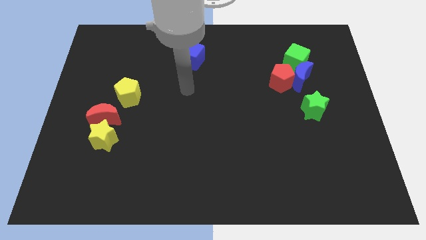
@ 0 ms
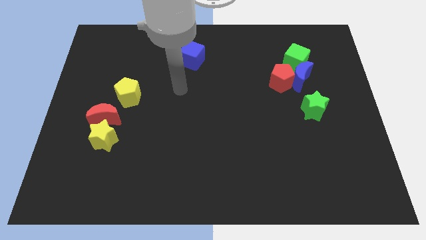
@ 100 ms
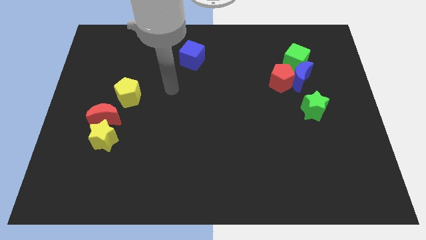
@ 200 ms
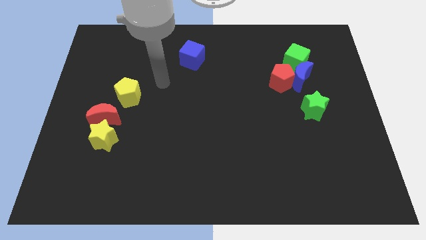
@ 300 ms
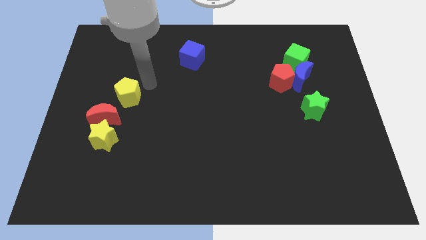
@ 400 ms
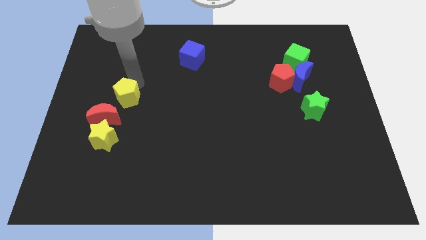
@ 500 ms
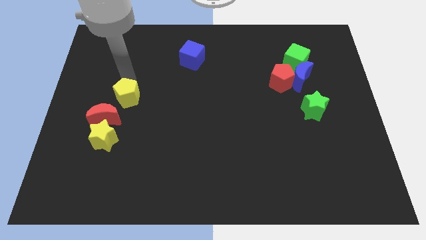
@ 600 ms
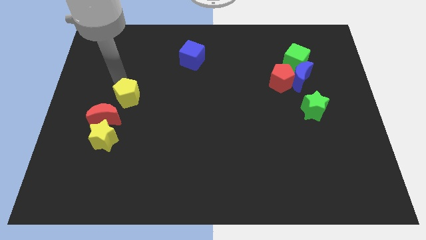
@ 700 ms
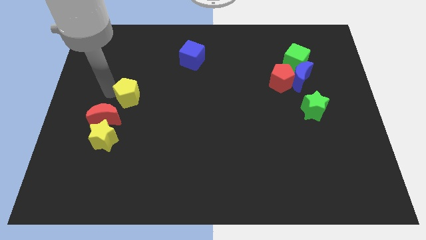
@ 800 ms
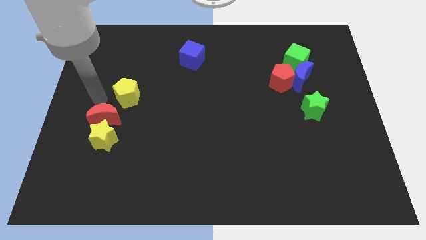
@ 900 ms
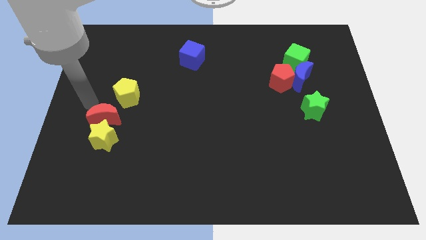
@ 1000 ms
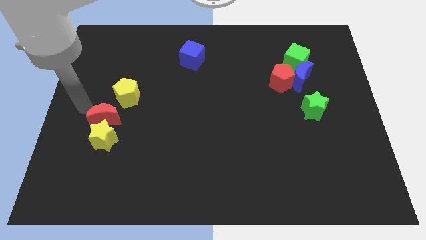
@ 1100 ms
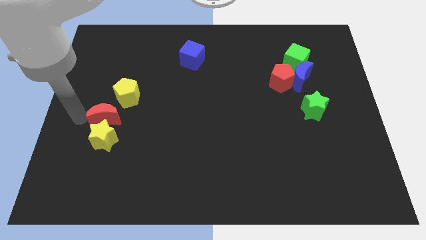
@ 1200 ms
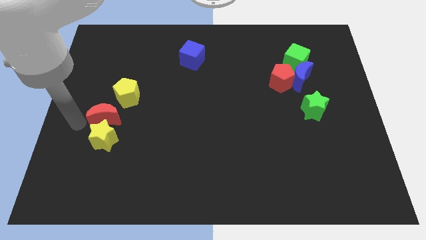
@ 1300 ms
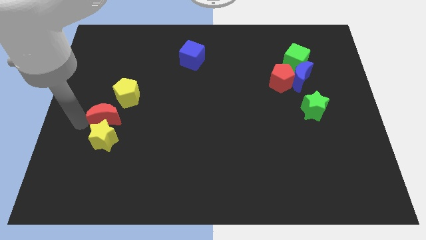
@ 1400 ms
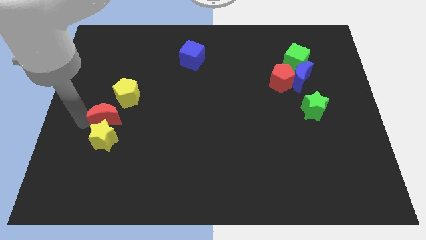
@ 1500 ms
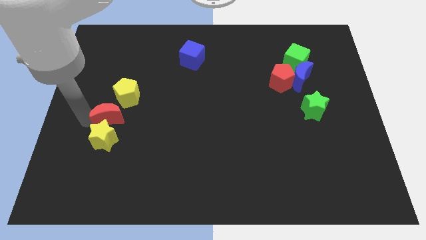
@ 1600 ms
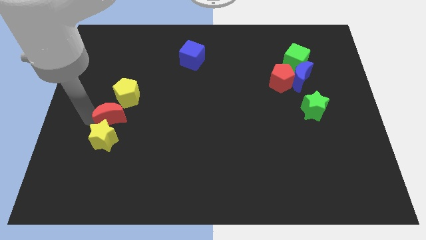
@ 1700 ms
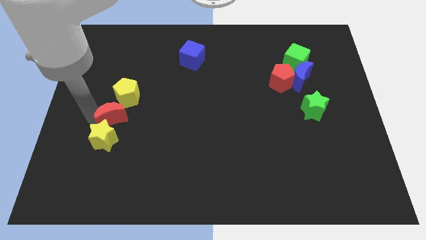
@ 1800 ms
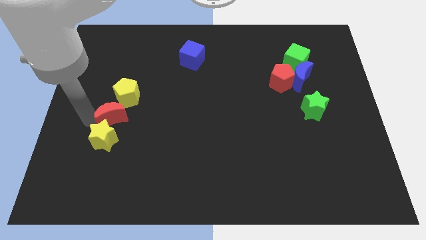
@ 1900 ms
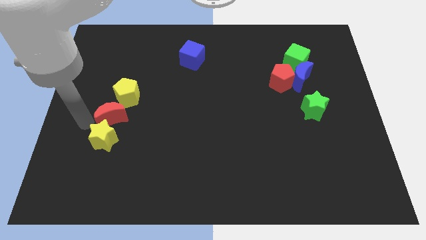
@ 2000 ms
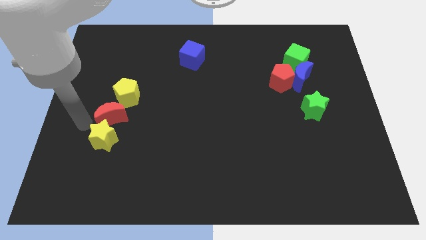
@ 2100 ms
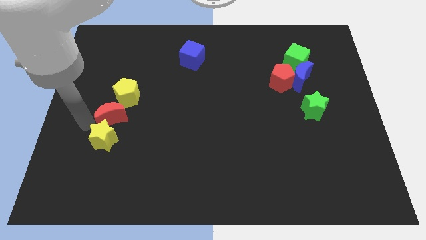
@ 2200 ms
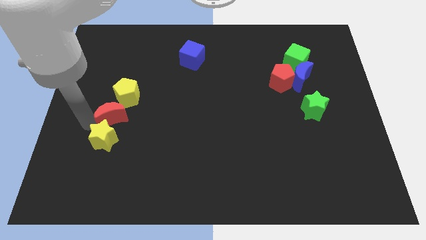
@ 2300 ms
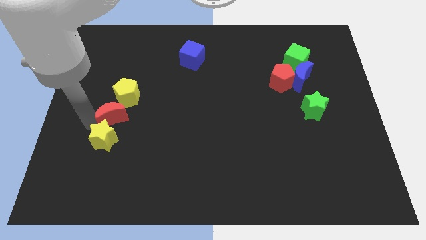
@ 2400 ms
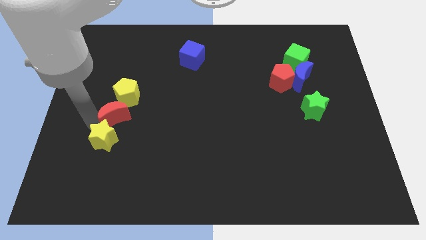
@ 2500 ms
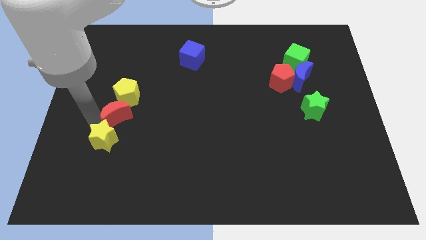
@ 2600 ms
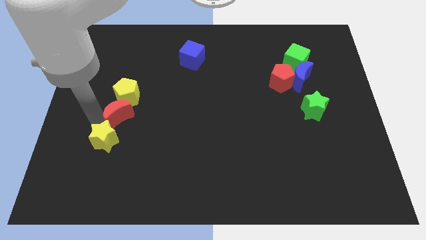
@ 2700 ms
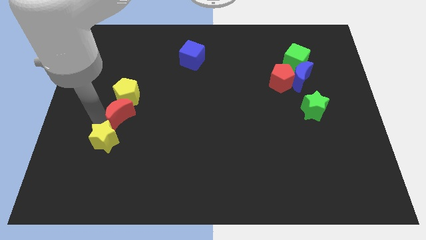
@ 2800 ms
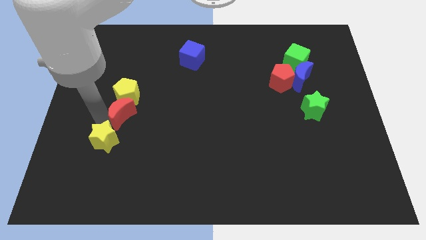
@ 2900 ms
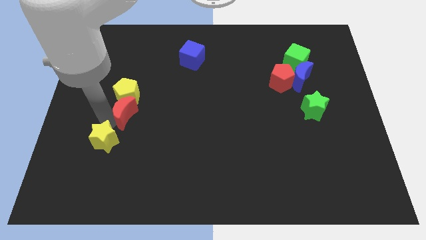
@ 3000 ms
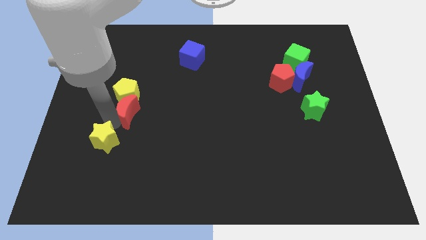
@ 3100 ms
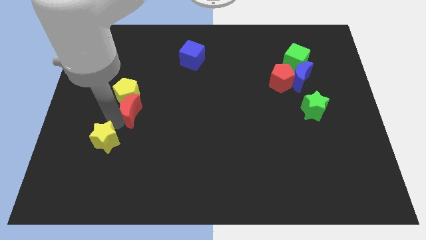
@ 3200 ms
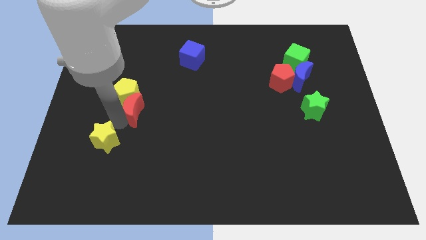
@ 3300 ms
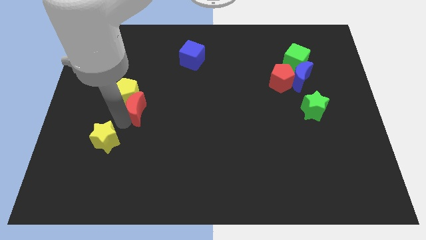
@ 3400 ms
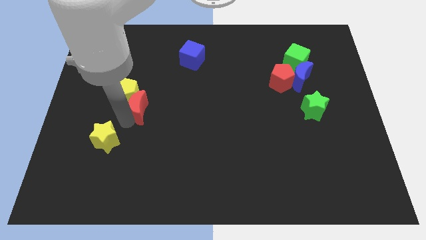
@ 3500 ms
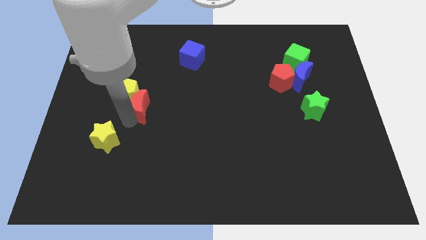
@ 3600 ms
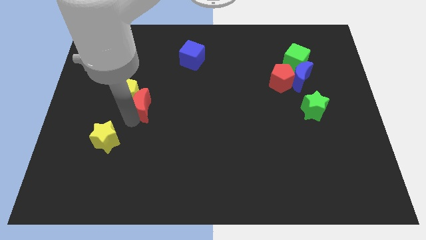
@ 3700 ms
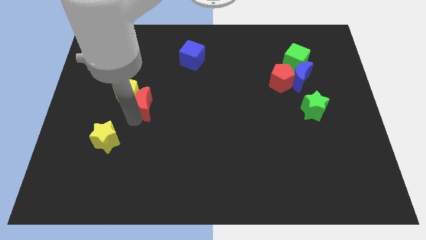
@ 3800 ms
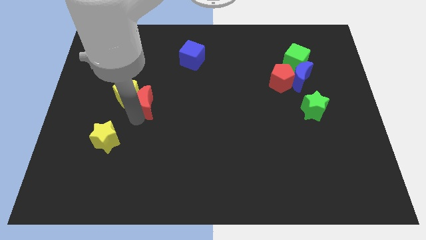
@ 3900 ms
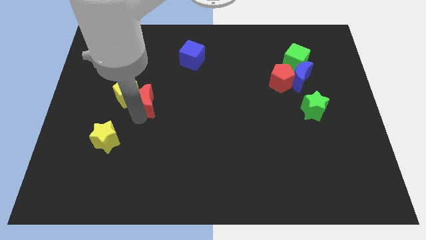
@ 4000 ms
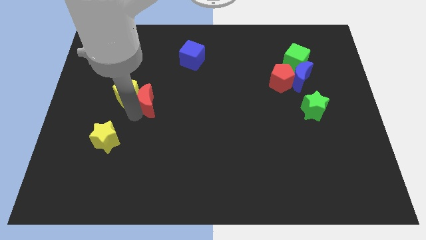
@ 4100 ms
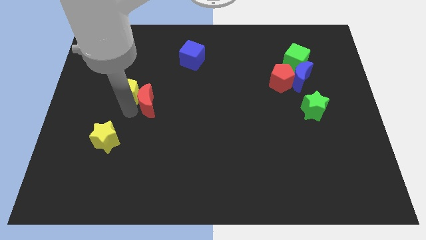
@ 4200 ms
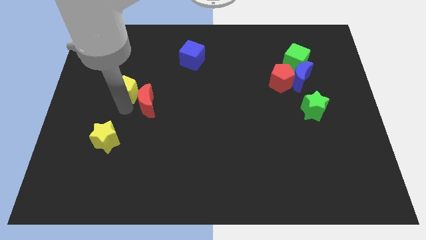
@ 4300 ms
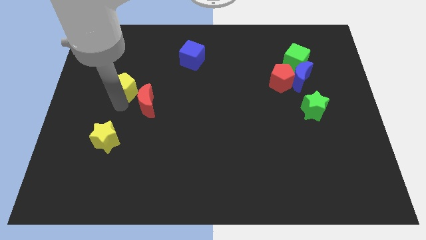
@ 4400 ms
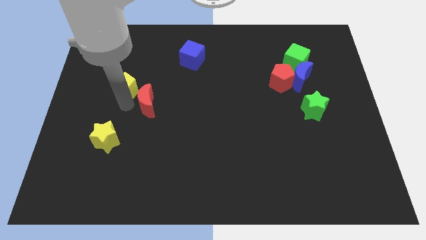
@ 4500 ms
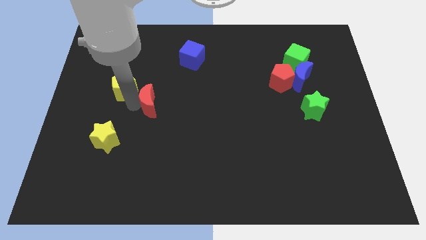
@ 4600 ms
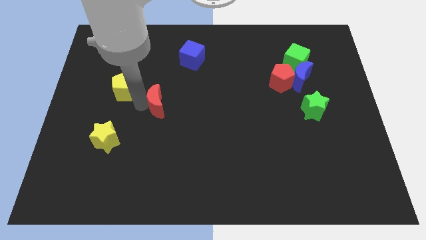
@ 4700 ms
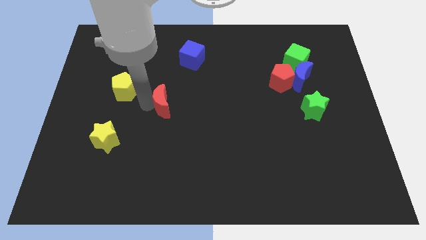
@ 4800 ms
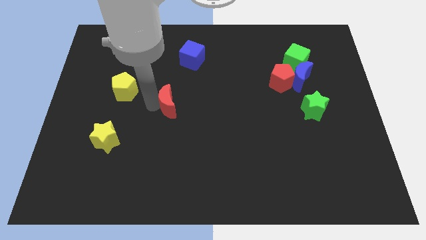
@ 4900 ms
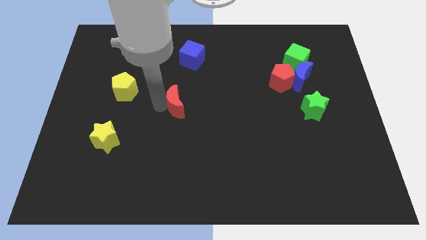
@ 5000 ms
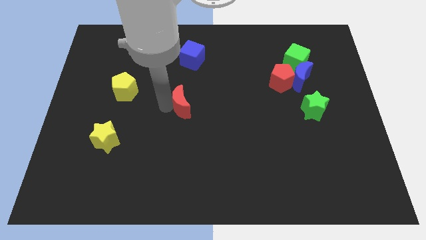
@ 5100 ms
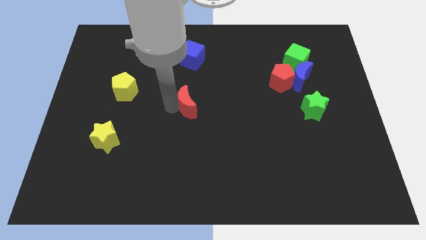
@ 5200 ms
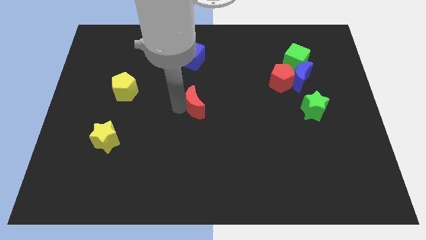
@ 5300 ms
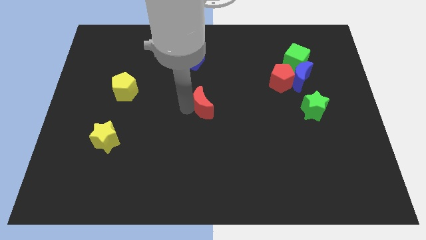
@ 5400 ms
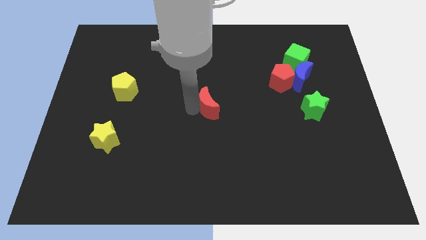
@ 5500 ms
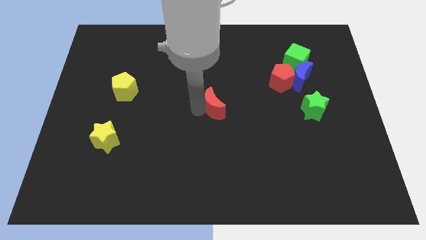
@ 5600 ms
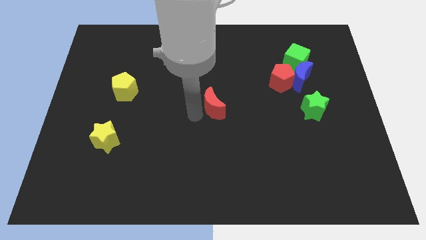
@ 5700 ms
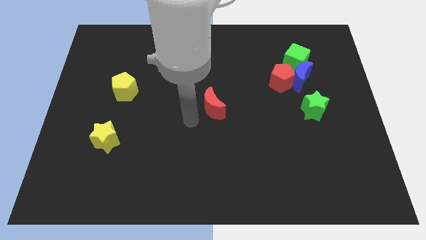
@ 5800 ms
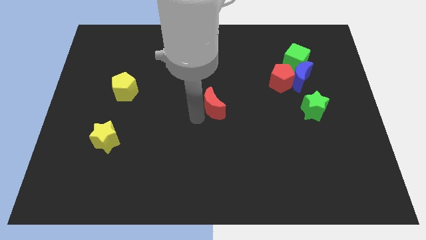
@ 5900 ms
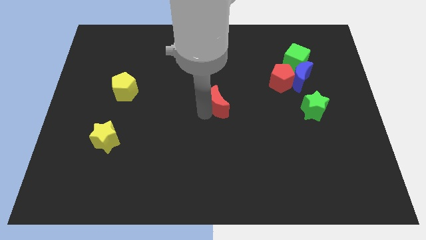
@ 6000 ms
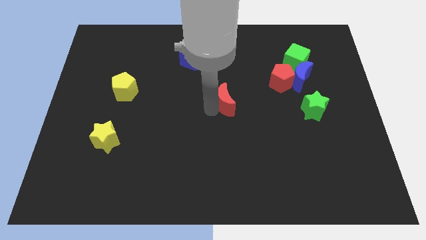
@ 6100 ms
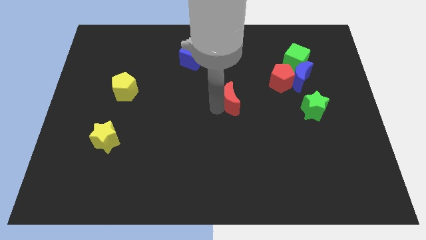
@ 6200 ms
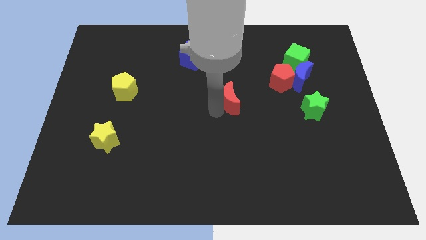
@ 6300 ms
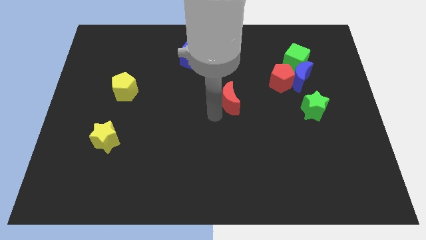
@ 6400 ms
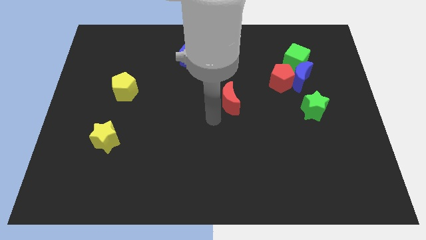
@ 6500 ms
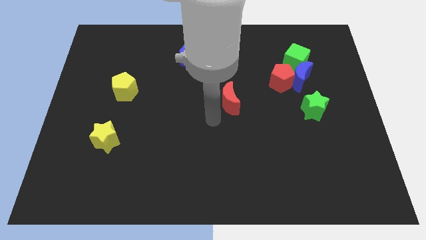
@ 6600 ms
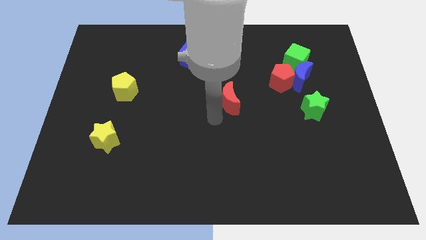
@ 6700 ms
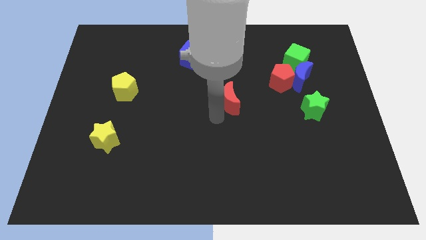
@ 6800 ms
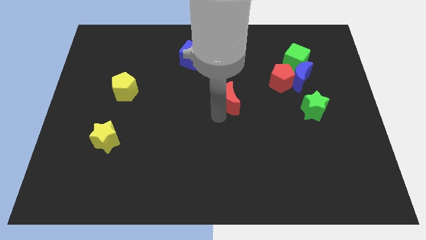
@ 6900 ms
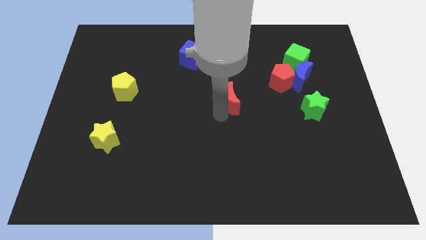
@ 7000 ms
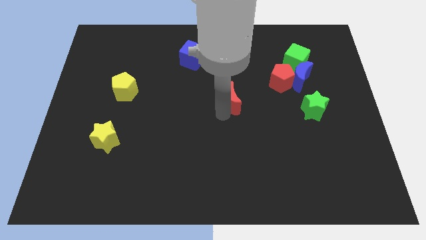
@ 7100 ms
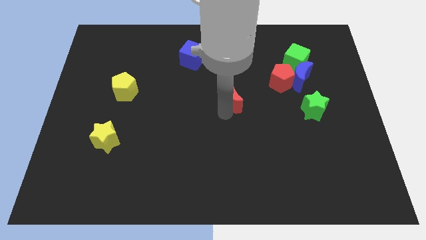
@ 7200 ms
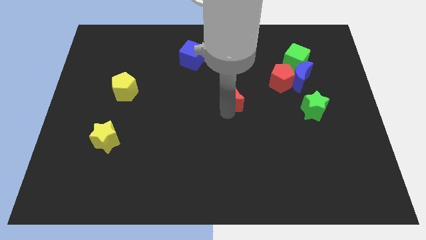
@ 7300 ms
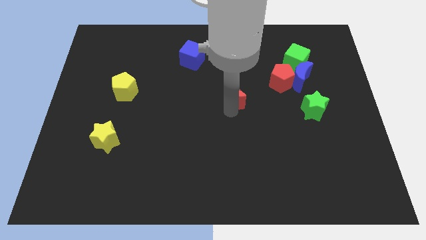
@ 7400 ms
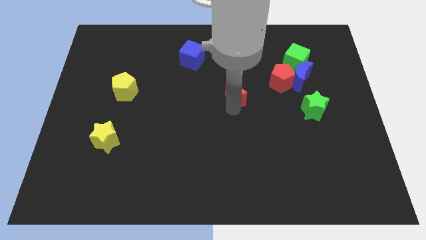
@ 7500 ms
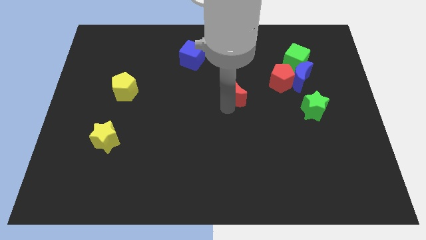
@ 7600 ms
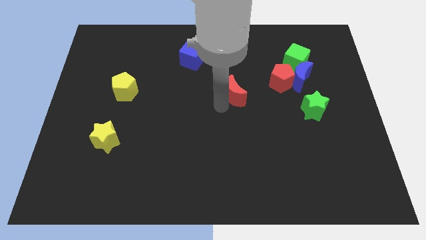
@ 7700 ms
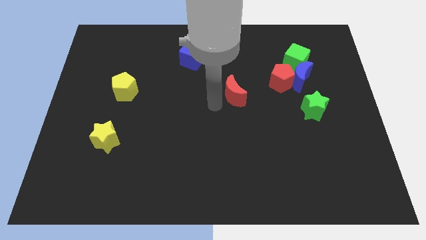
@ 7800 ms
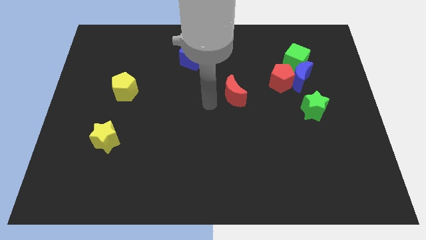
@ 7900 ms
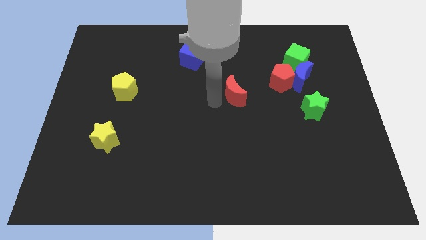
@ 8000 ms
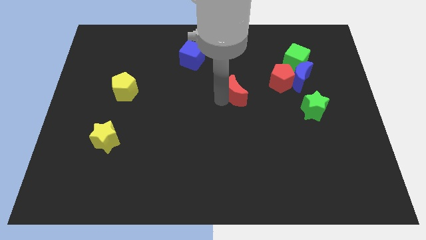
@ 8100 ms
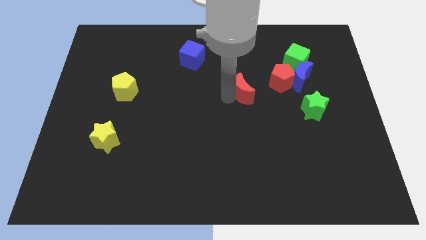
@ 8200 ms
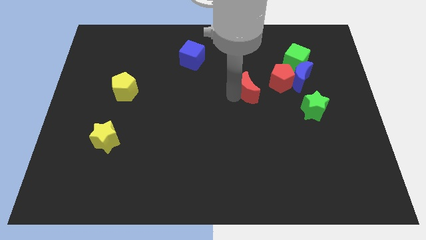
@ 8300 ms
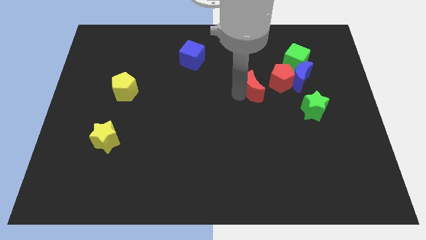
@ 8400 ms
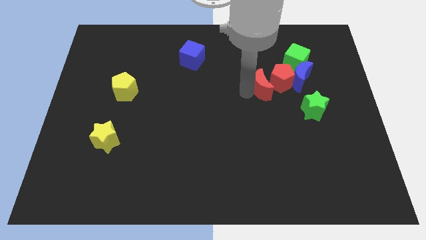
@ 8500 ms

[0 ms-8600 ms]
slide the red moon towards the red pentagon
